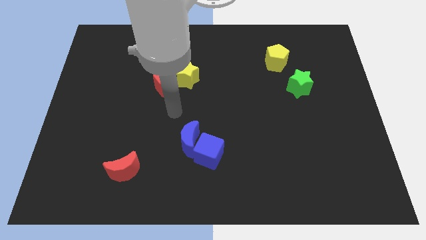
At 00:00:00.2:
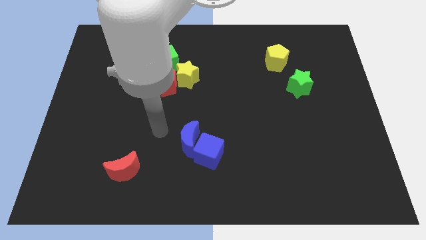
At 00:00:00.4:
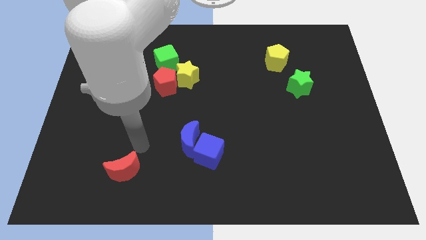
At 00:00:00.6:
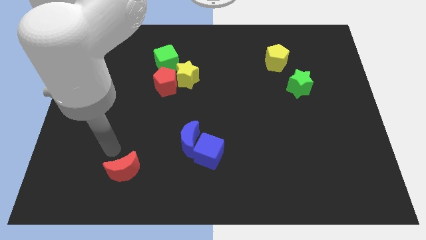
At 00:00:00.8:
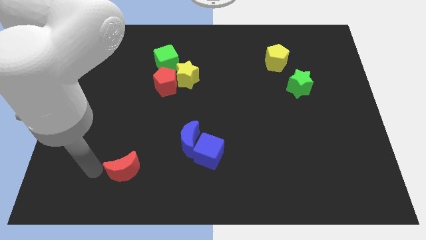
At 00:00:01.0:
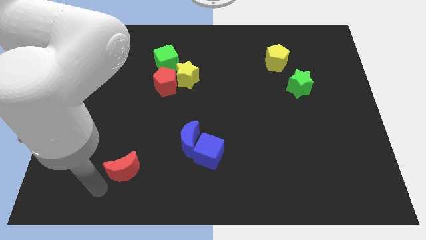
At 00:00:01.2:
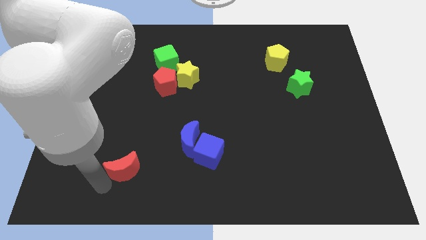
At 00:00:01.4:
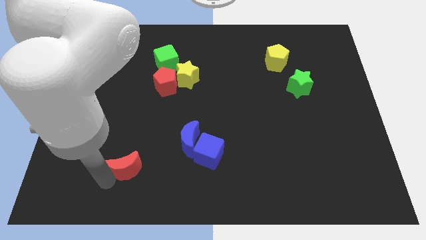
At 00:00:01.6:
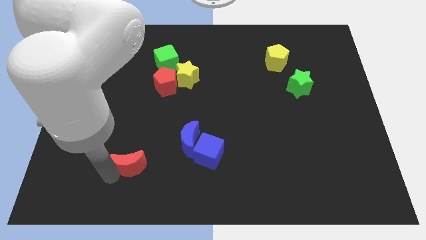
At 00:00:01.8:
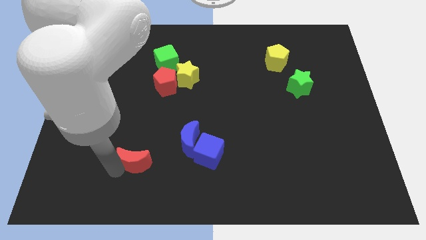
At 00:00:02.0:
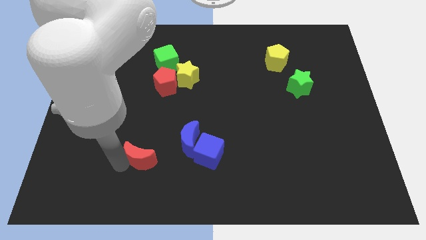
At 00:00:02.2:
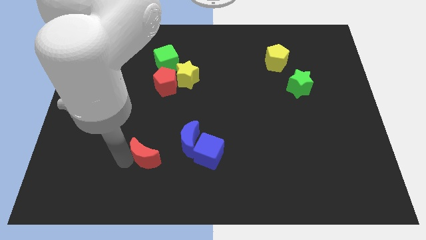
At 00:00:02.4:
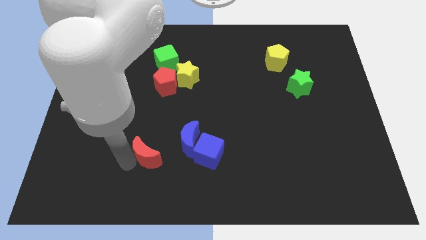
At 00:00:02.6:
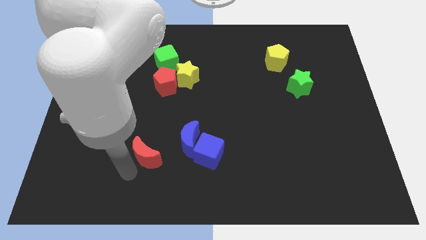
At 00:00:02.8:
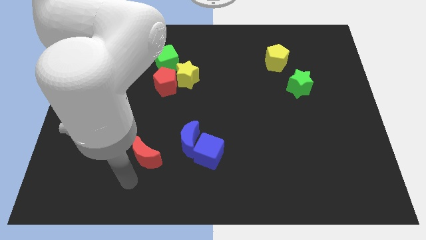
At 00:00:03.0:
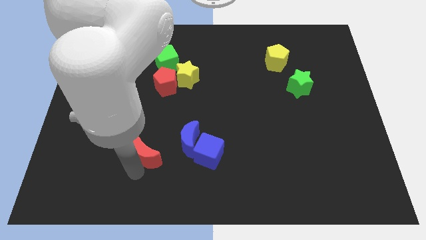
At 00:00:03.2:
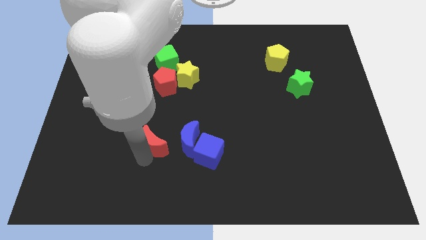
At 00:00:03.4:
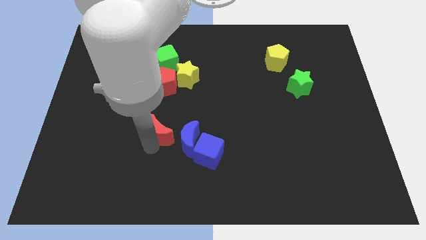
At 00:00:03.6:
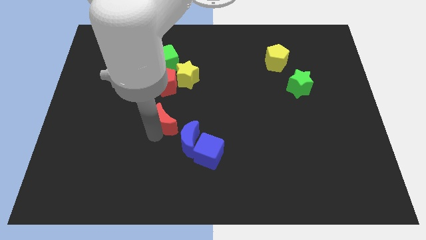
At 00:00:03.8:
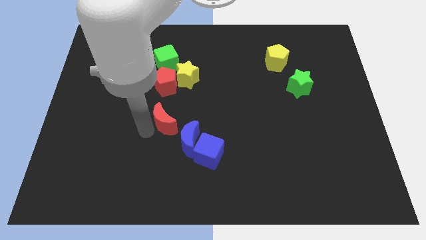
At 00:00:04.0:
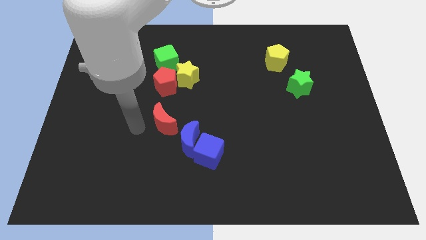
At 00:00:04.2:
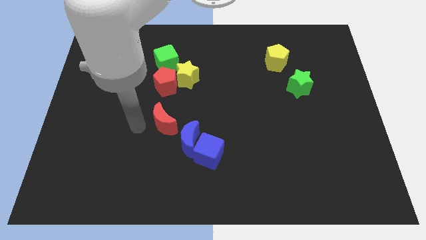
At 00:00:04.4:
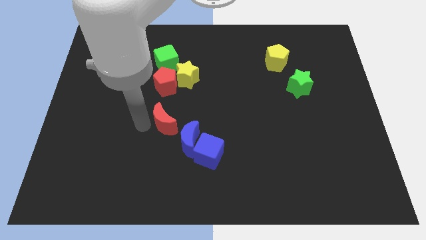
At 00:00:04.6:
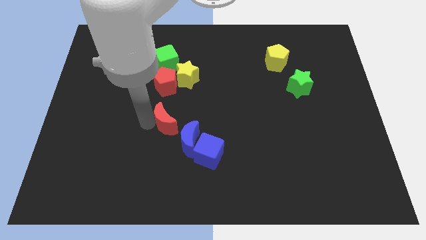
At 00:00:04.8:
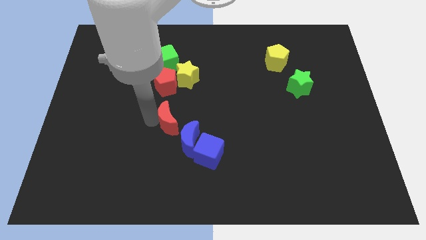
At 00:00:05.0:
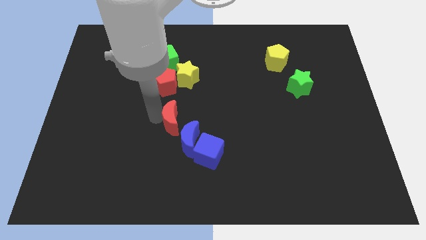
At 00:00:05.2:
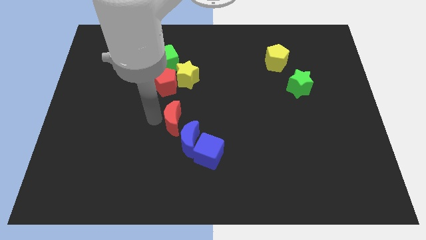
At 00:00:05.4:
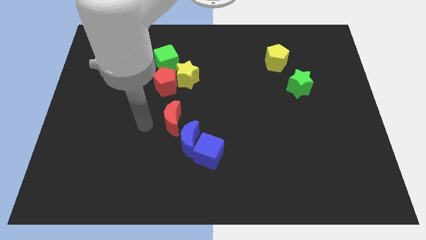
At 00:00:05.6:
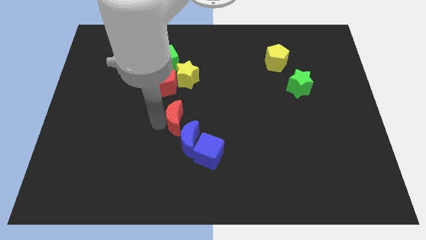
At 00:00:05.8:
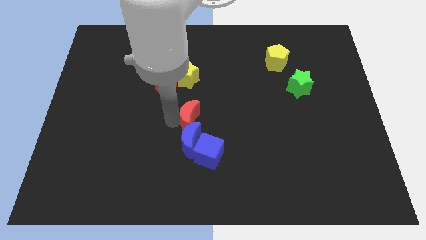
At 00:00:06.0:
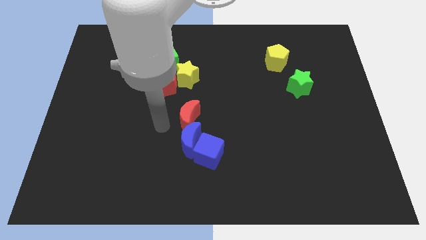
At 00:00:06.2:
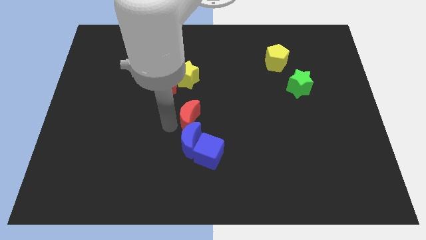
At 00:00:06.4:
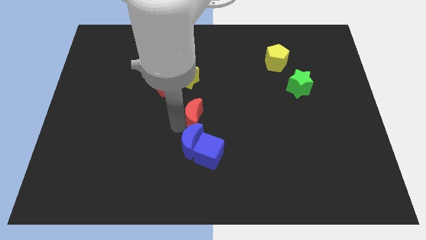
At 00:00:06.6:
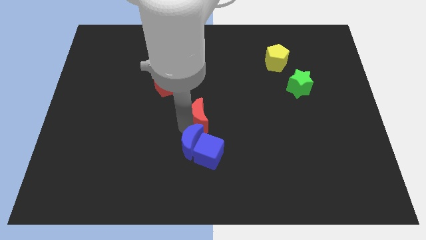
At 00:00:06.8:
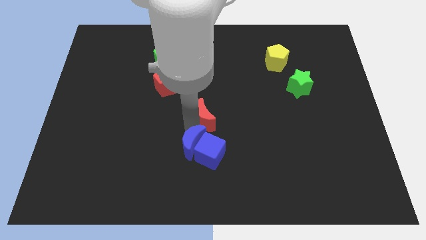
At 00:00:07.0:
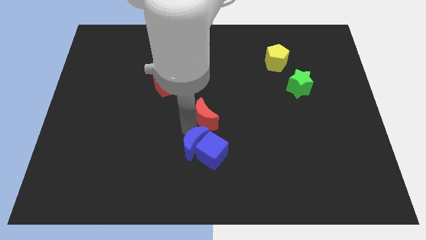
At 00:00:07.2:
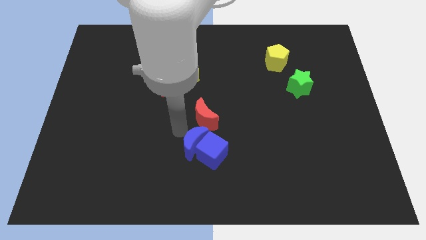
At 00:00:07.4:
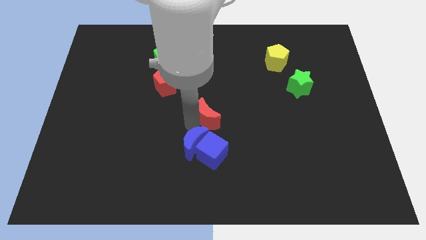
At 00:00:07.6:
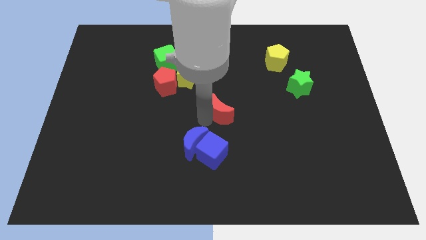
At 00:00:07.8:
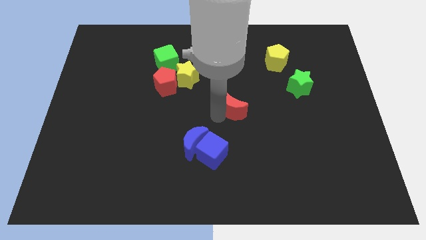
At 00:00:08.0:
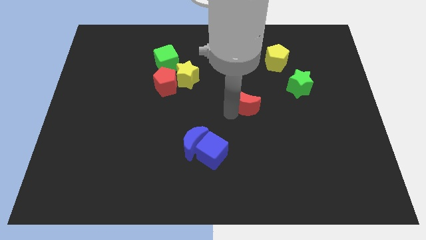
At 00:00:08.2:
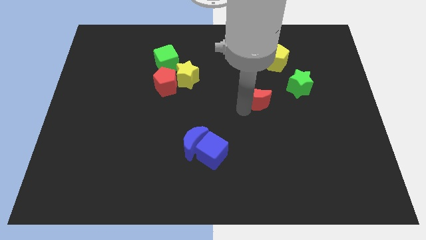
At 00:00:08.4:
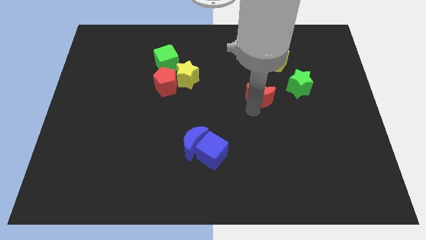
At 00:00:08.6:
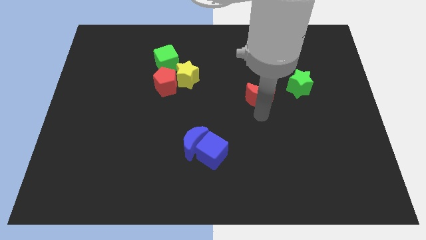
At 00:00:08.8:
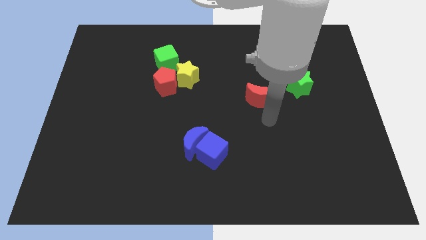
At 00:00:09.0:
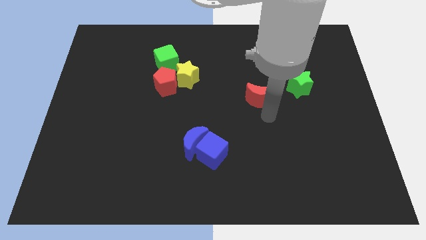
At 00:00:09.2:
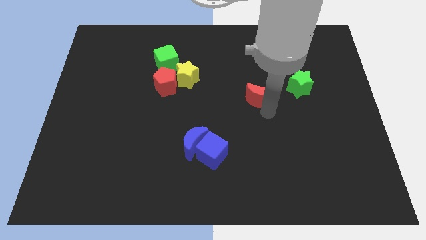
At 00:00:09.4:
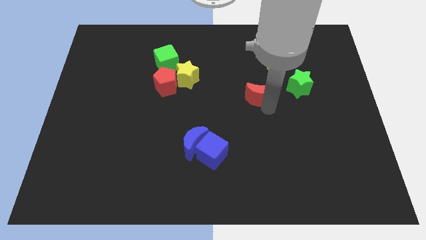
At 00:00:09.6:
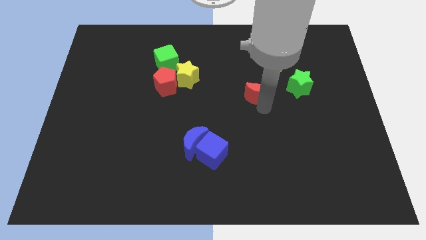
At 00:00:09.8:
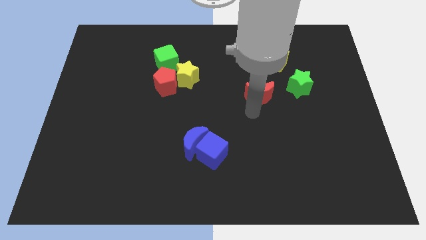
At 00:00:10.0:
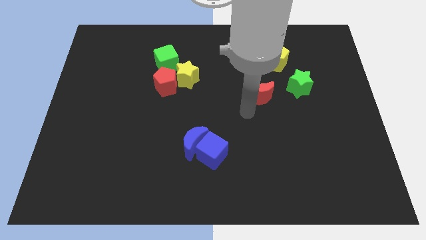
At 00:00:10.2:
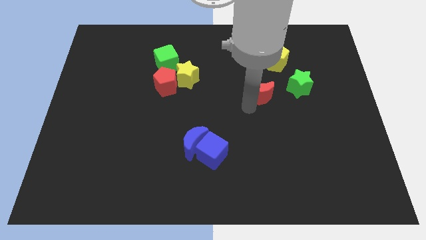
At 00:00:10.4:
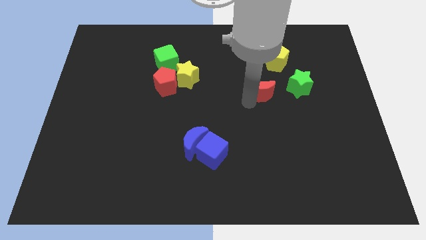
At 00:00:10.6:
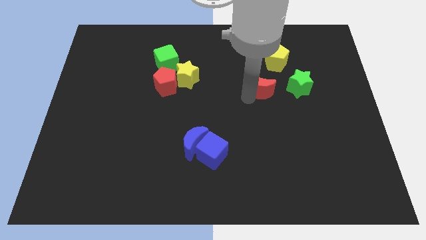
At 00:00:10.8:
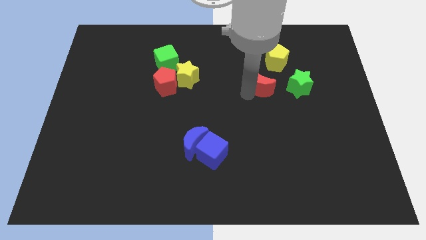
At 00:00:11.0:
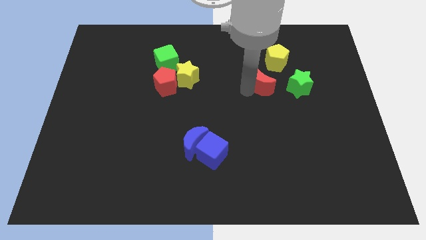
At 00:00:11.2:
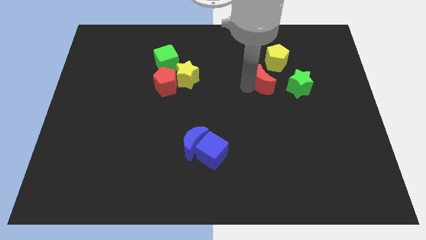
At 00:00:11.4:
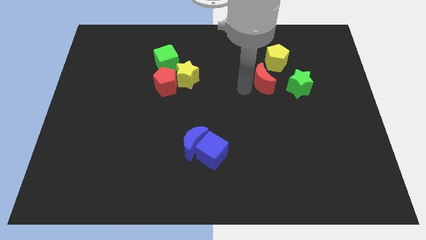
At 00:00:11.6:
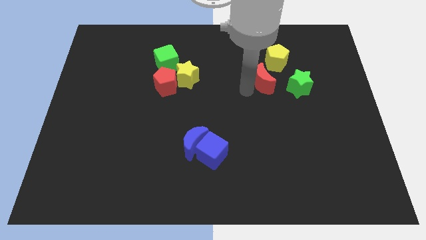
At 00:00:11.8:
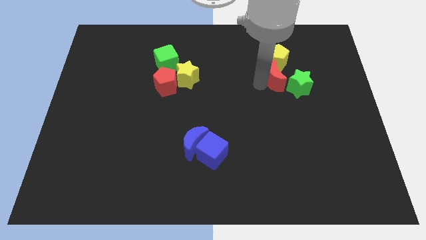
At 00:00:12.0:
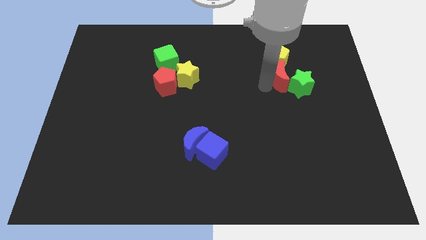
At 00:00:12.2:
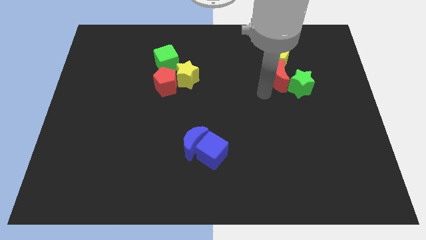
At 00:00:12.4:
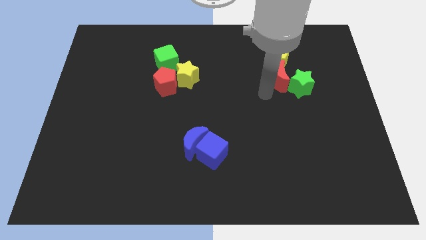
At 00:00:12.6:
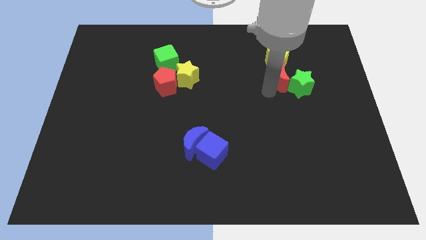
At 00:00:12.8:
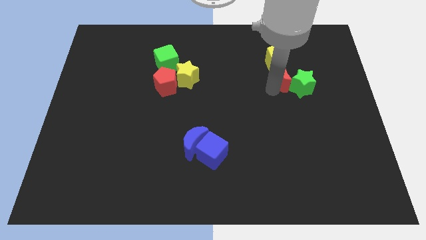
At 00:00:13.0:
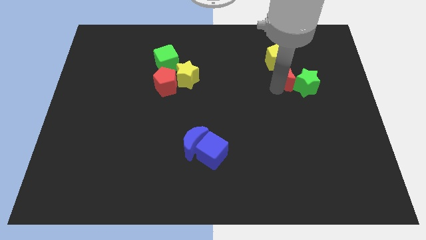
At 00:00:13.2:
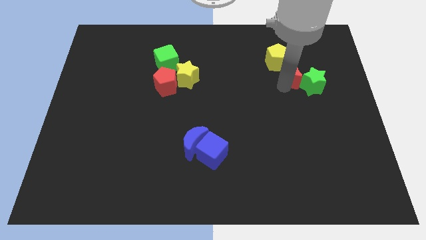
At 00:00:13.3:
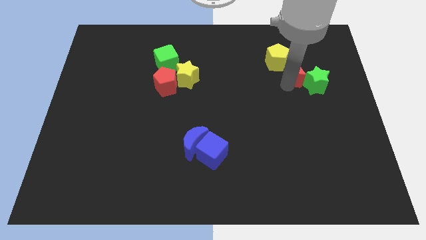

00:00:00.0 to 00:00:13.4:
put the red moon to the right of the yellow pentagon

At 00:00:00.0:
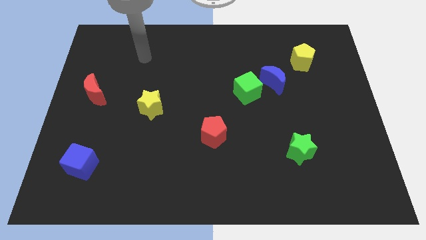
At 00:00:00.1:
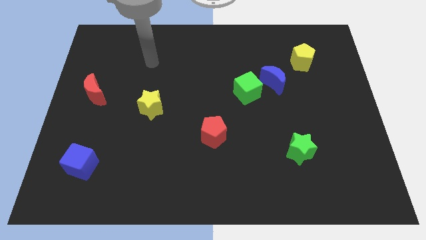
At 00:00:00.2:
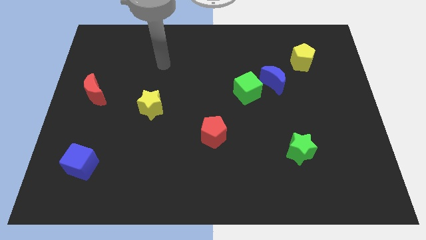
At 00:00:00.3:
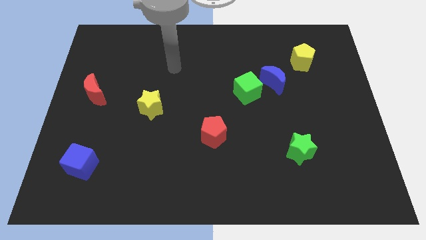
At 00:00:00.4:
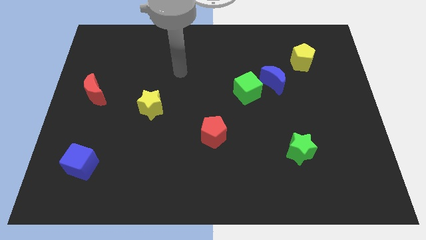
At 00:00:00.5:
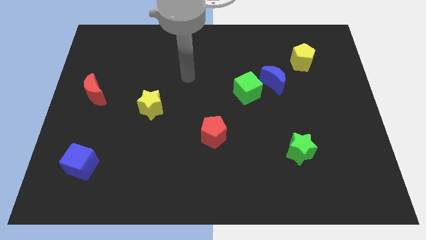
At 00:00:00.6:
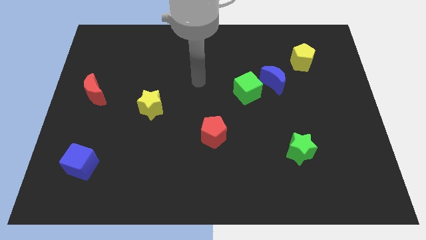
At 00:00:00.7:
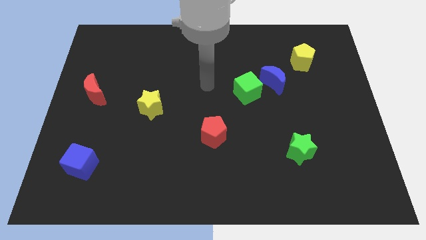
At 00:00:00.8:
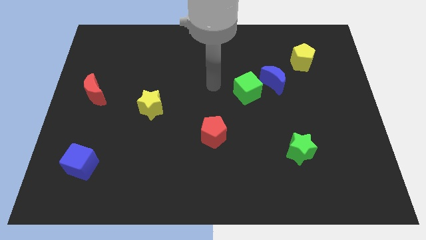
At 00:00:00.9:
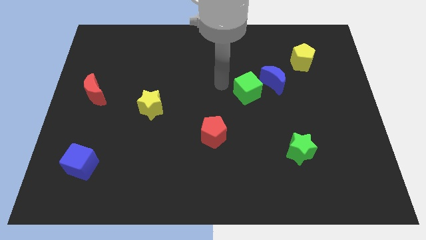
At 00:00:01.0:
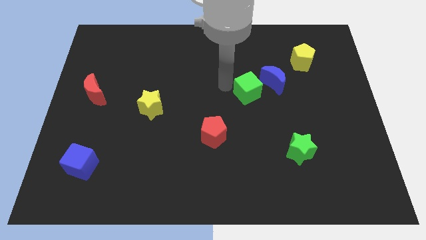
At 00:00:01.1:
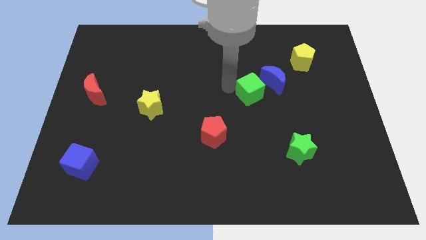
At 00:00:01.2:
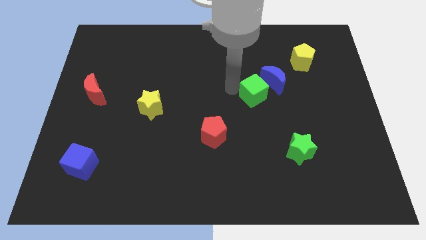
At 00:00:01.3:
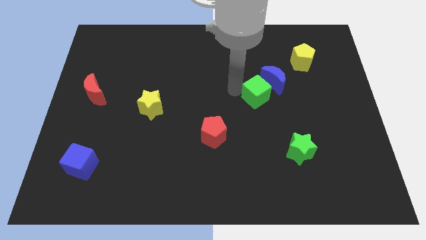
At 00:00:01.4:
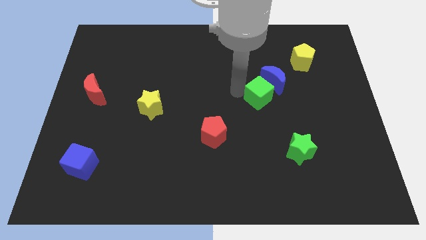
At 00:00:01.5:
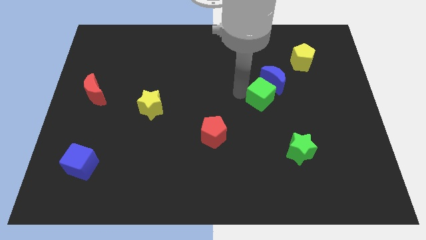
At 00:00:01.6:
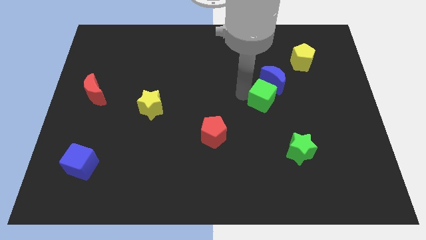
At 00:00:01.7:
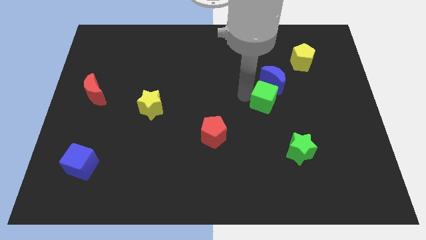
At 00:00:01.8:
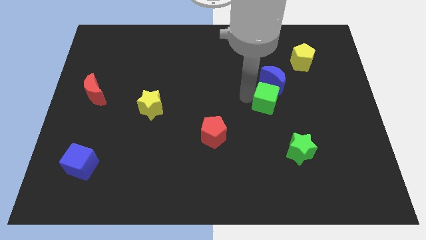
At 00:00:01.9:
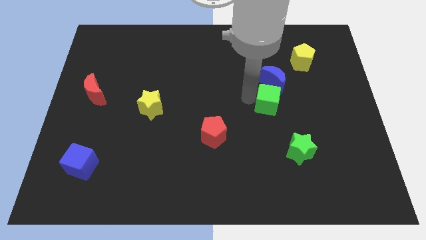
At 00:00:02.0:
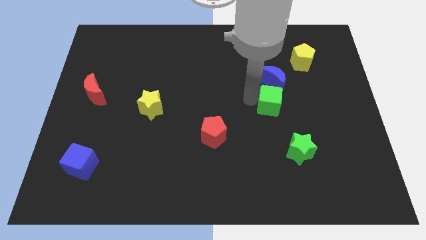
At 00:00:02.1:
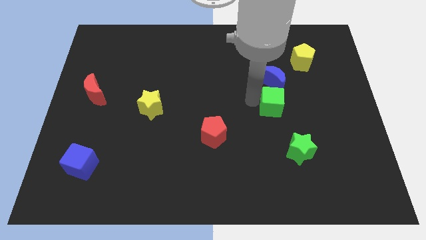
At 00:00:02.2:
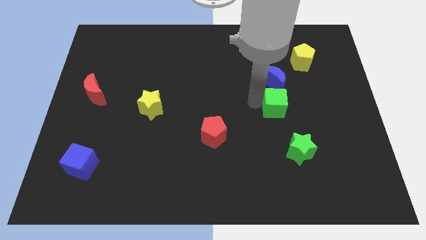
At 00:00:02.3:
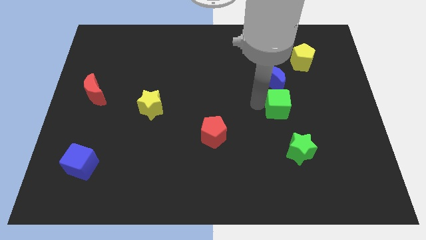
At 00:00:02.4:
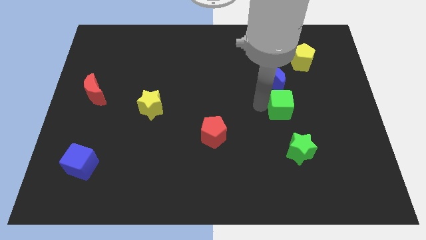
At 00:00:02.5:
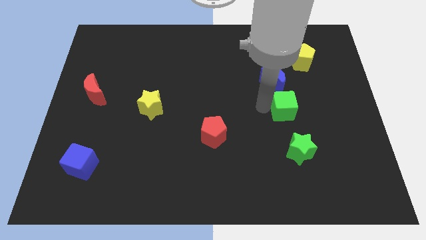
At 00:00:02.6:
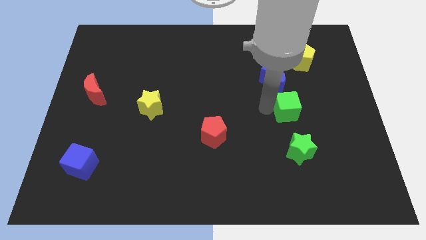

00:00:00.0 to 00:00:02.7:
put the green cube to the bottom right side of the blue moon
